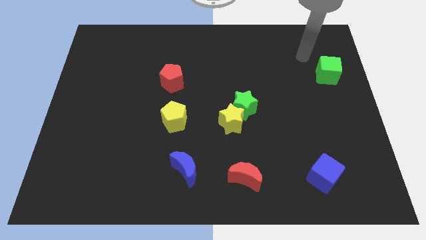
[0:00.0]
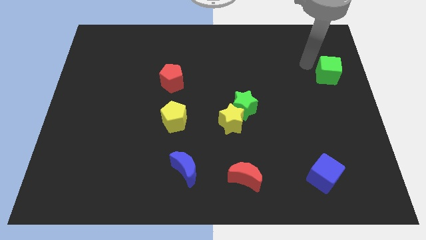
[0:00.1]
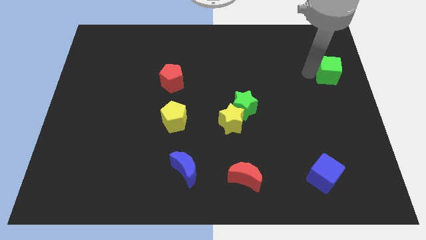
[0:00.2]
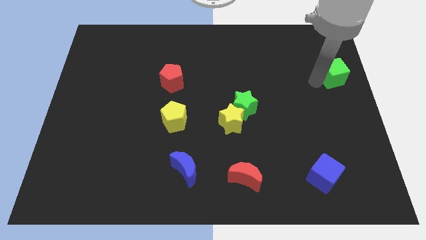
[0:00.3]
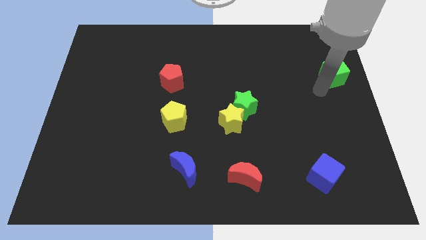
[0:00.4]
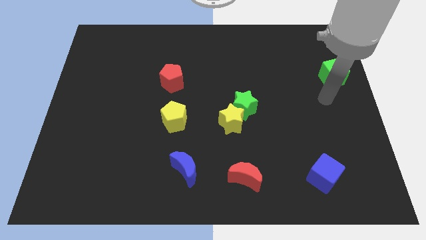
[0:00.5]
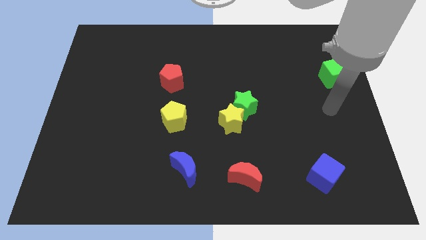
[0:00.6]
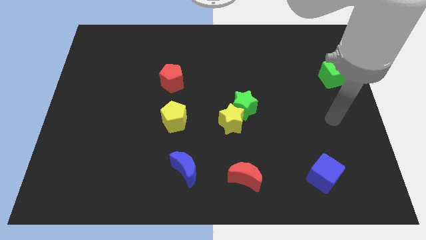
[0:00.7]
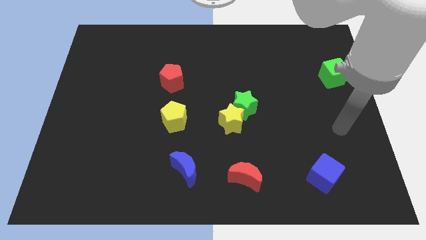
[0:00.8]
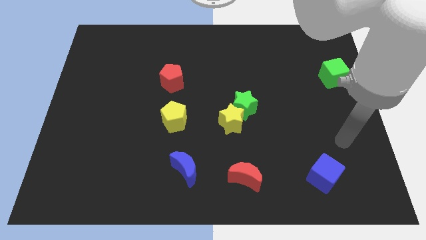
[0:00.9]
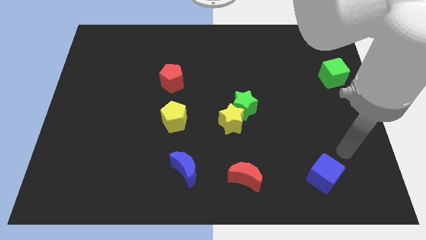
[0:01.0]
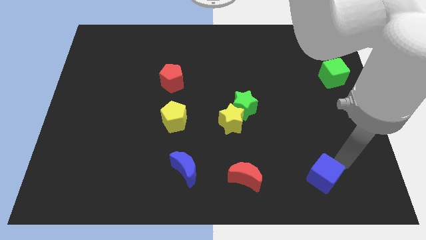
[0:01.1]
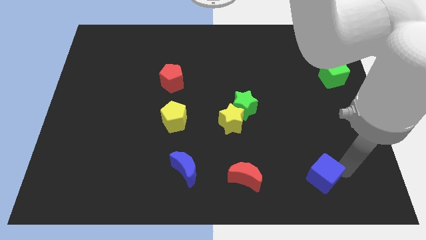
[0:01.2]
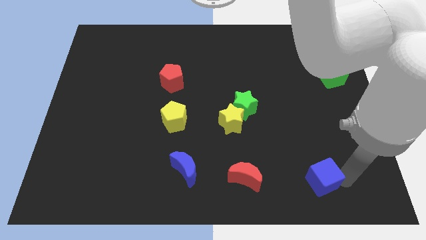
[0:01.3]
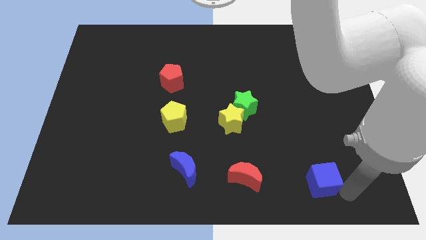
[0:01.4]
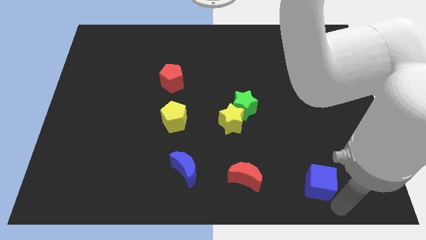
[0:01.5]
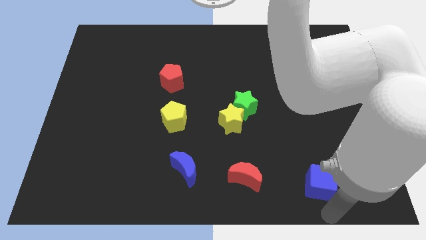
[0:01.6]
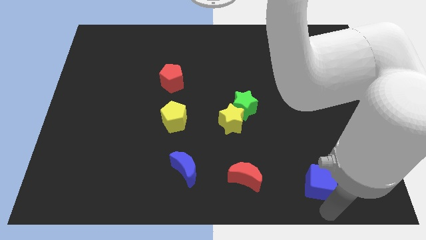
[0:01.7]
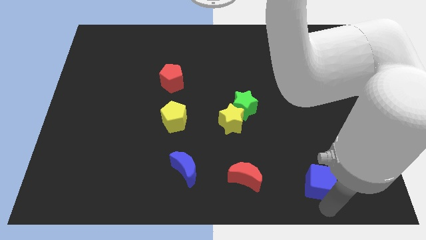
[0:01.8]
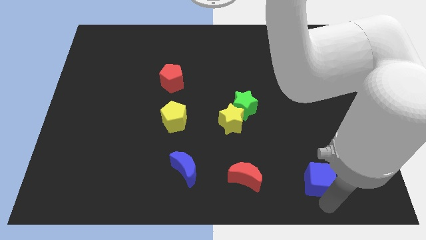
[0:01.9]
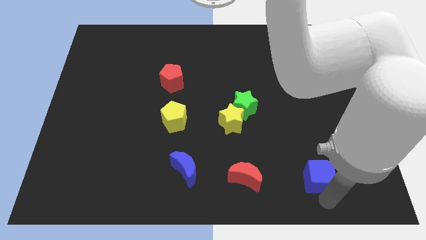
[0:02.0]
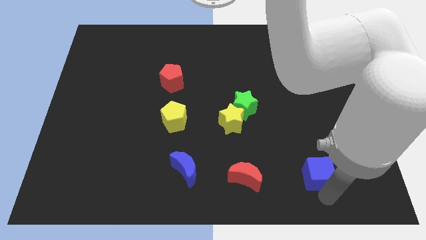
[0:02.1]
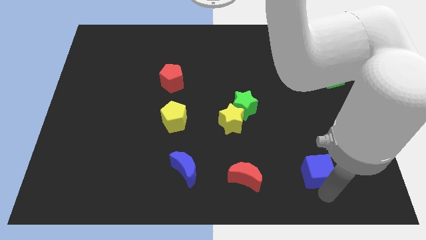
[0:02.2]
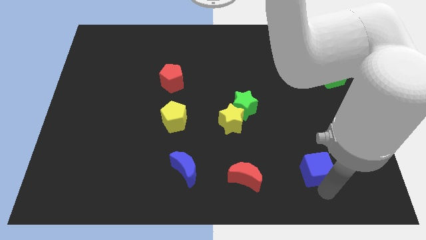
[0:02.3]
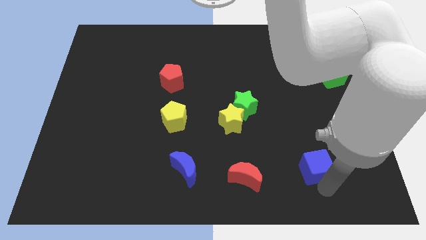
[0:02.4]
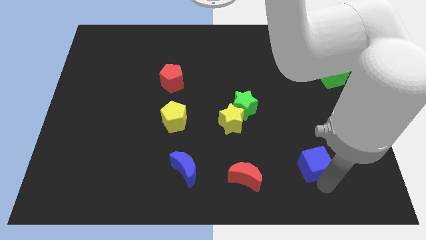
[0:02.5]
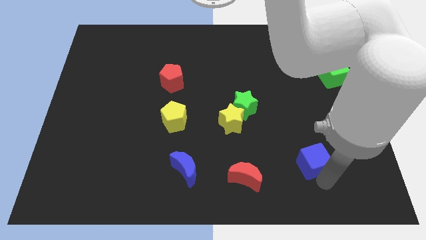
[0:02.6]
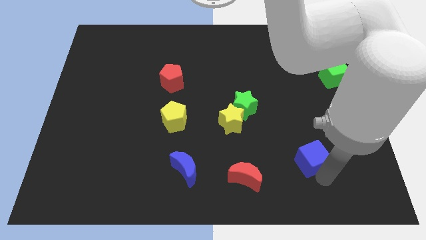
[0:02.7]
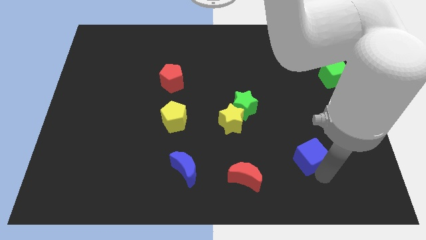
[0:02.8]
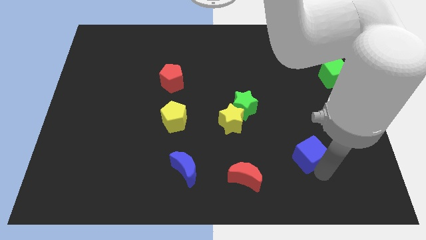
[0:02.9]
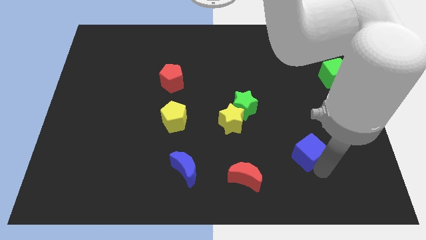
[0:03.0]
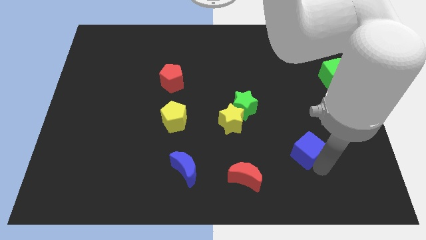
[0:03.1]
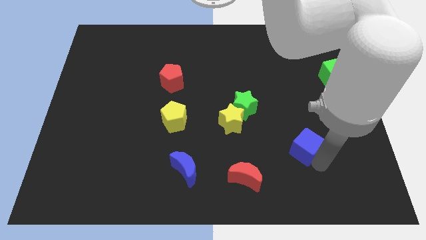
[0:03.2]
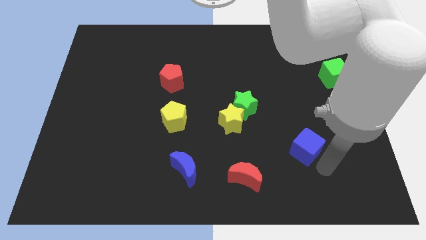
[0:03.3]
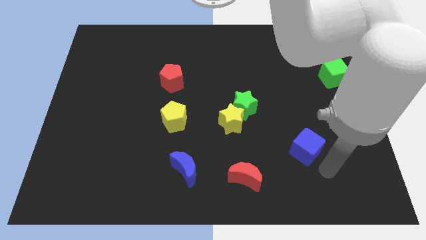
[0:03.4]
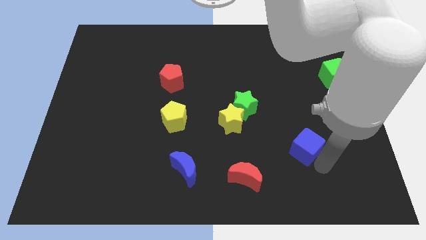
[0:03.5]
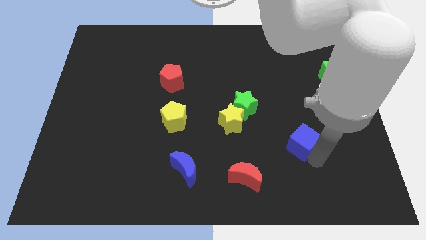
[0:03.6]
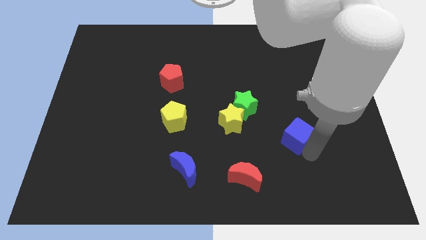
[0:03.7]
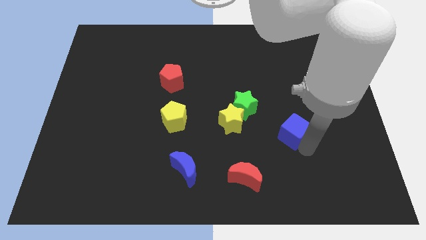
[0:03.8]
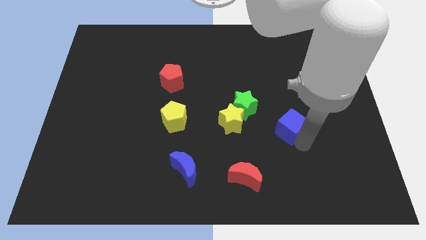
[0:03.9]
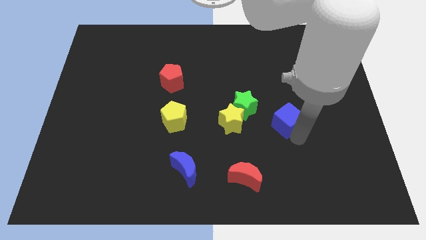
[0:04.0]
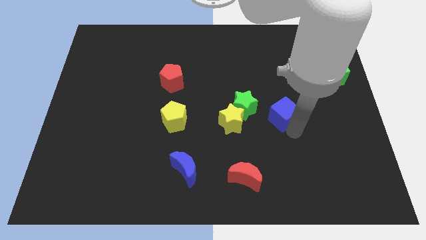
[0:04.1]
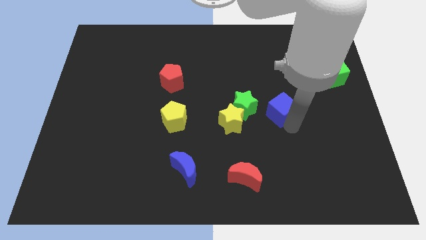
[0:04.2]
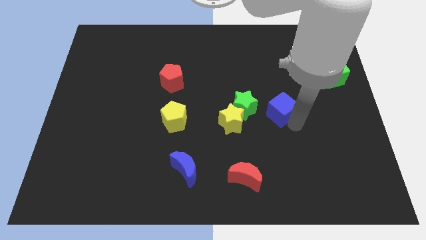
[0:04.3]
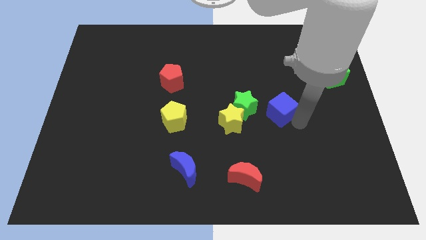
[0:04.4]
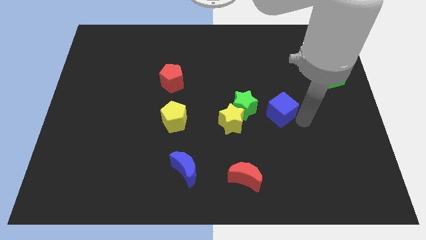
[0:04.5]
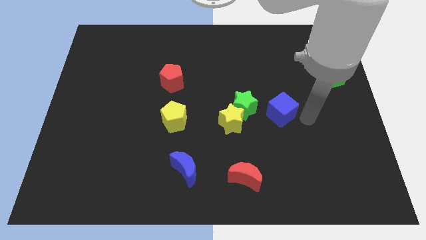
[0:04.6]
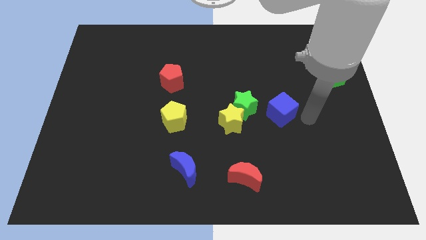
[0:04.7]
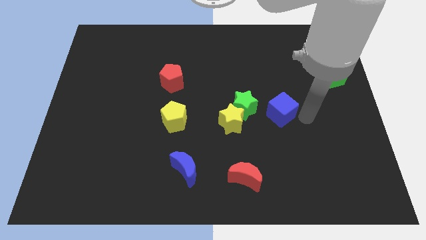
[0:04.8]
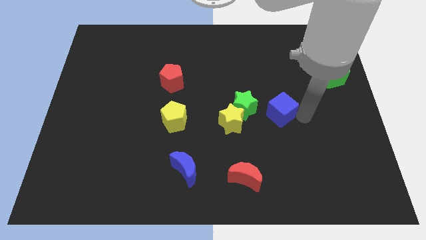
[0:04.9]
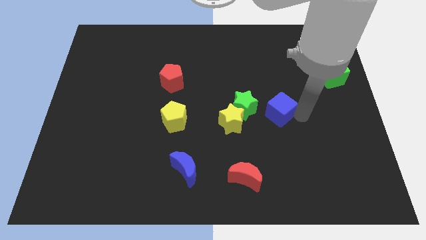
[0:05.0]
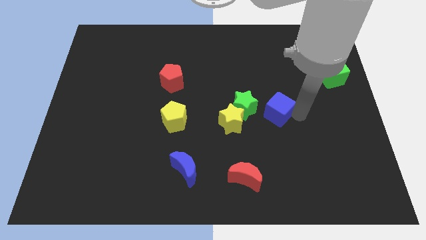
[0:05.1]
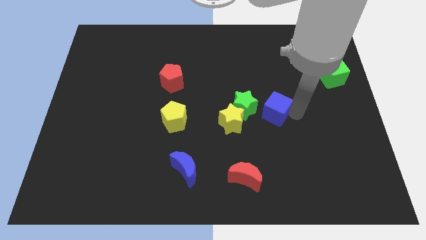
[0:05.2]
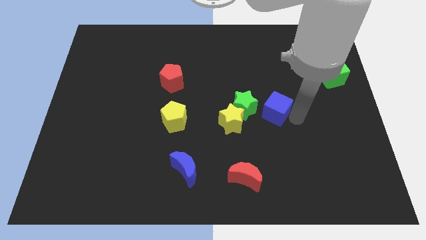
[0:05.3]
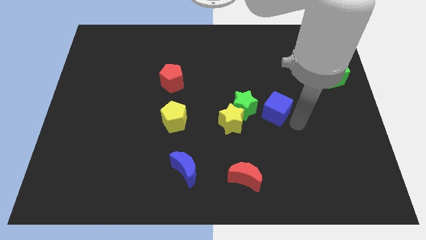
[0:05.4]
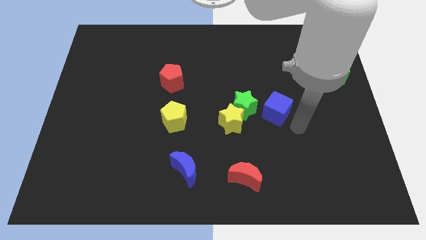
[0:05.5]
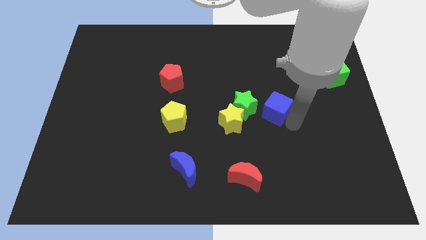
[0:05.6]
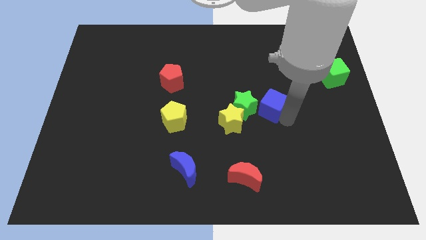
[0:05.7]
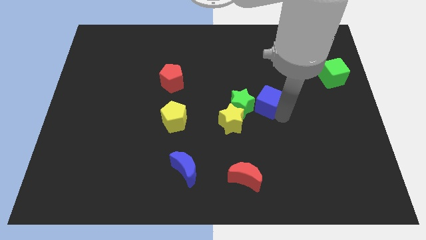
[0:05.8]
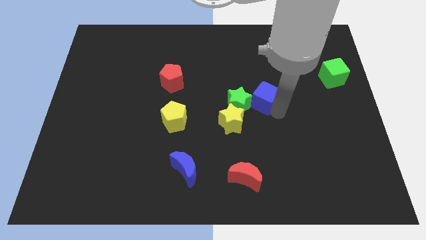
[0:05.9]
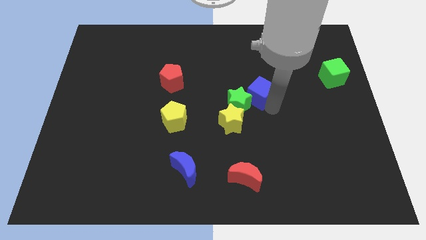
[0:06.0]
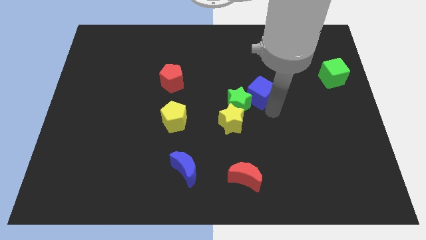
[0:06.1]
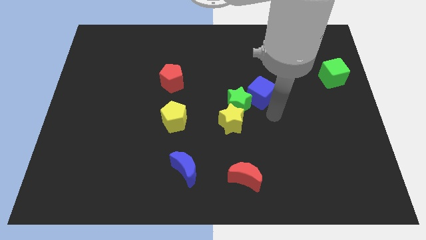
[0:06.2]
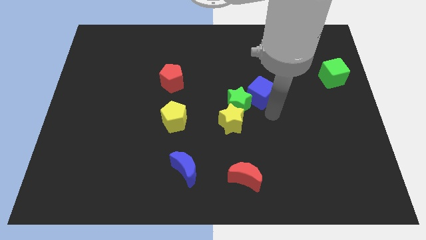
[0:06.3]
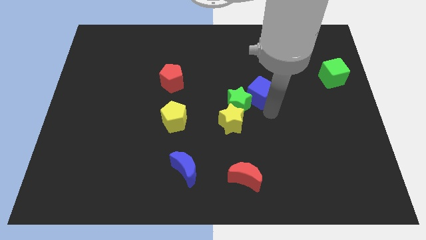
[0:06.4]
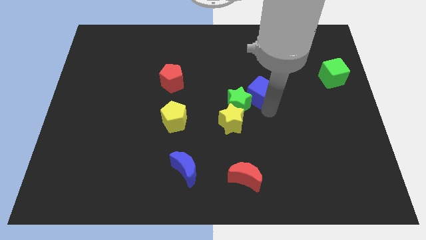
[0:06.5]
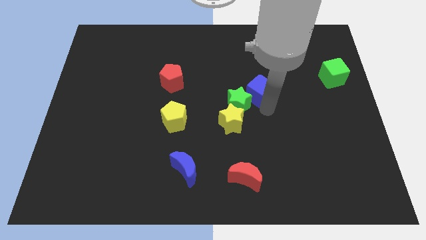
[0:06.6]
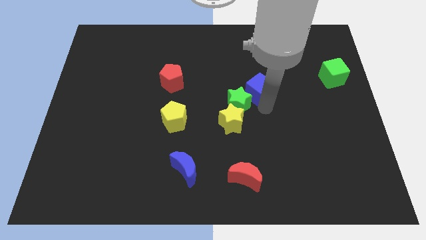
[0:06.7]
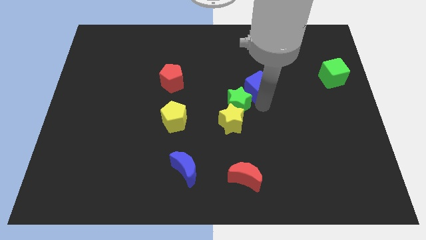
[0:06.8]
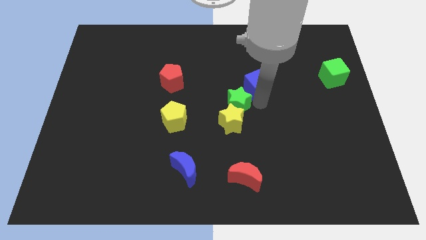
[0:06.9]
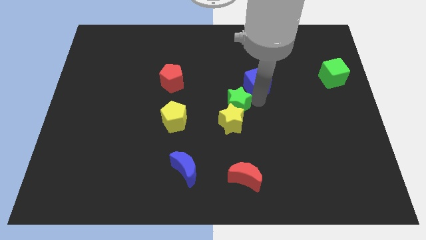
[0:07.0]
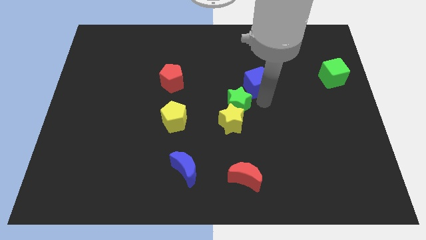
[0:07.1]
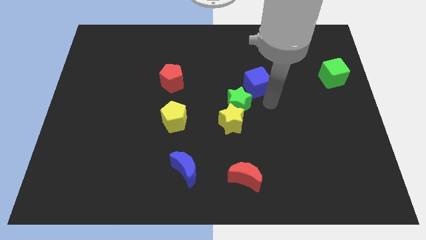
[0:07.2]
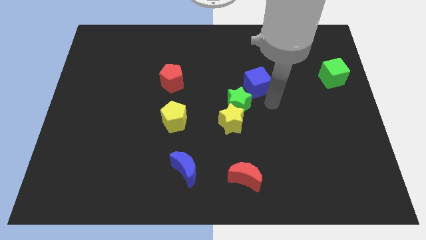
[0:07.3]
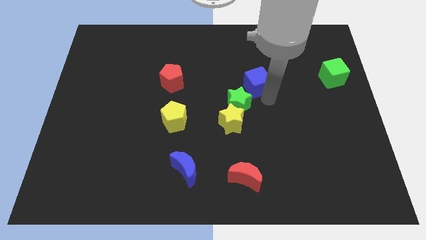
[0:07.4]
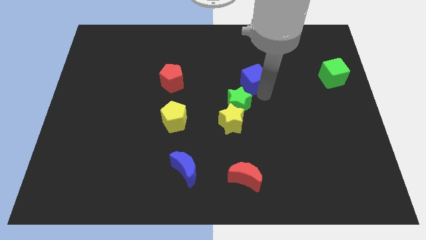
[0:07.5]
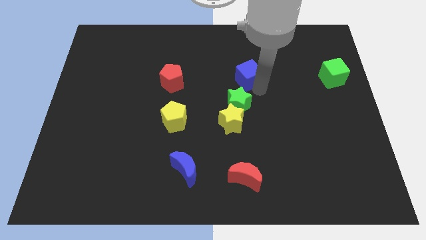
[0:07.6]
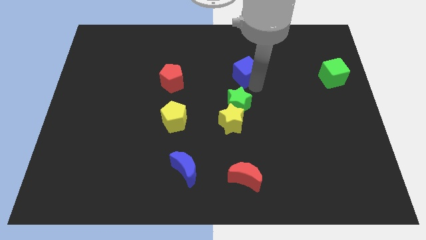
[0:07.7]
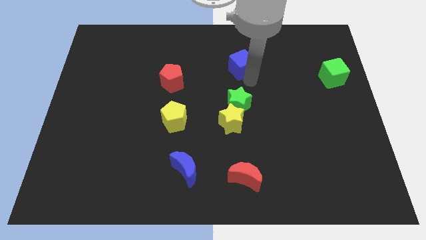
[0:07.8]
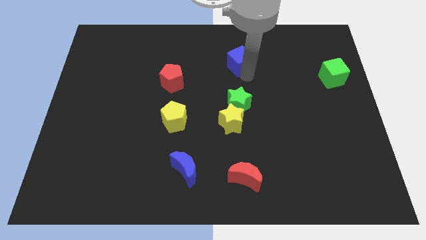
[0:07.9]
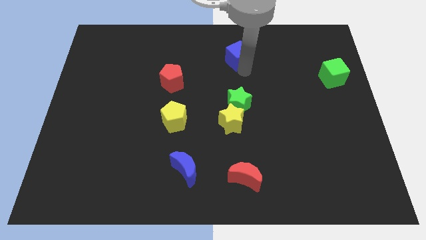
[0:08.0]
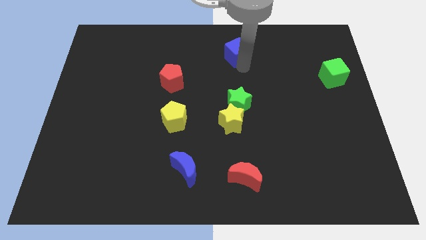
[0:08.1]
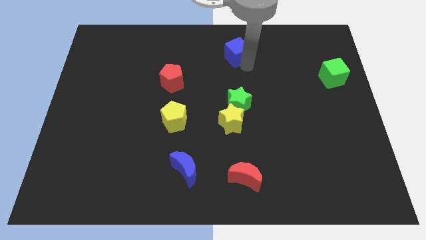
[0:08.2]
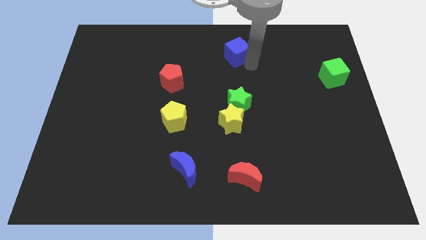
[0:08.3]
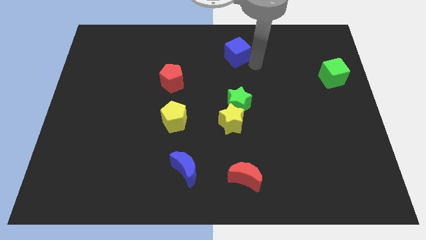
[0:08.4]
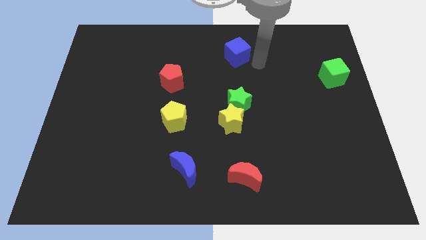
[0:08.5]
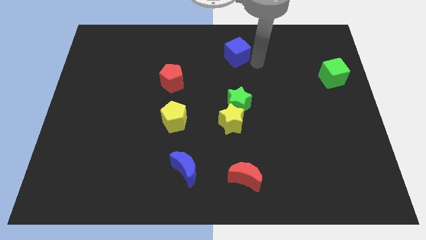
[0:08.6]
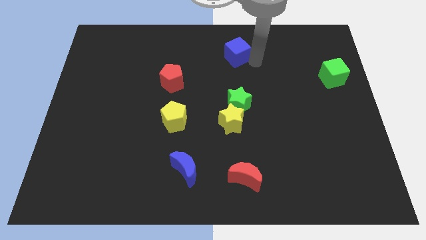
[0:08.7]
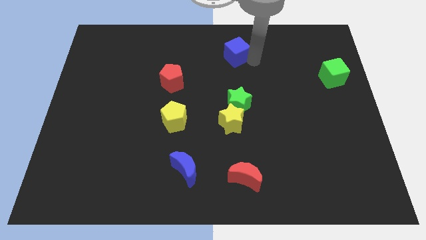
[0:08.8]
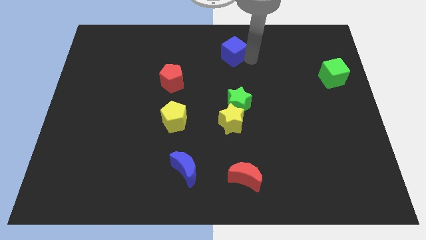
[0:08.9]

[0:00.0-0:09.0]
slide the blue cube to the top
